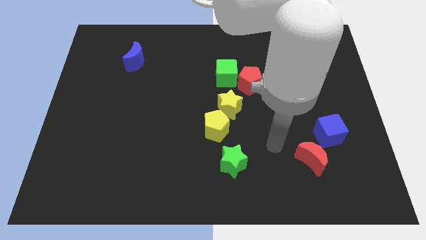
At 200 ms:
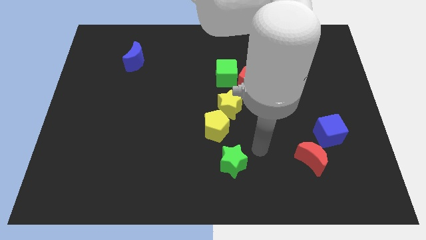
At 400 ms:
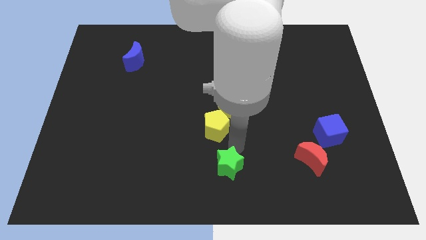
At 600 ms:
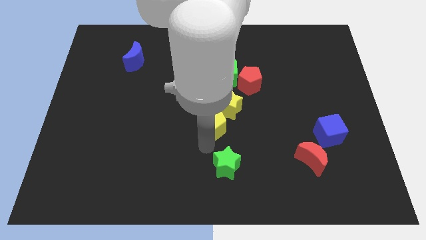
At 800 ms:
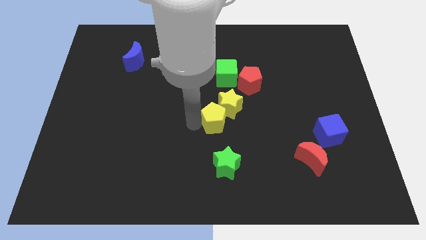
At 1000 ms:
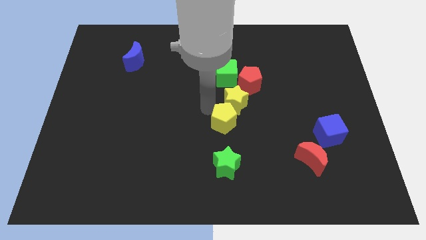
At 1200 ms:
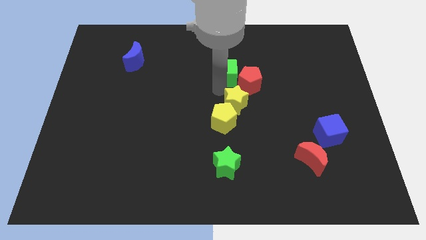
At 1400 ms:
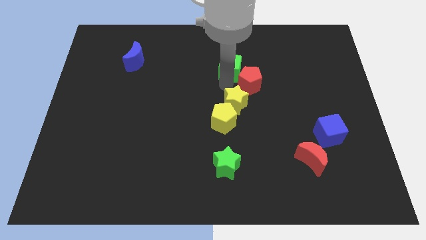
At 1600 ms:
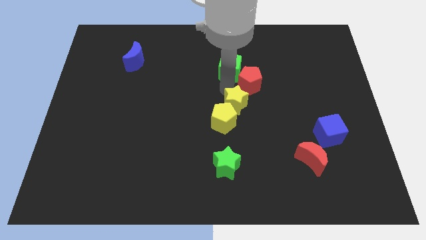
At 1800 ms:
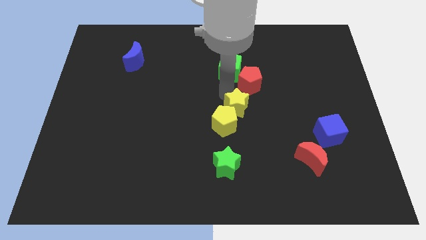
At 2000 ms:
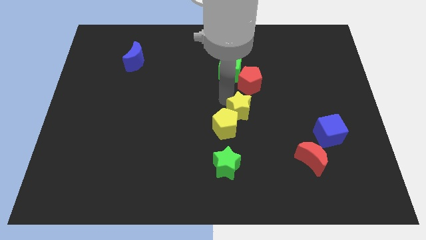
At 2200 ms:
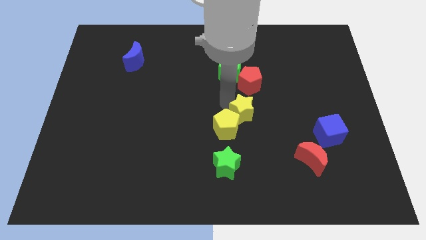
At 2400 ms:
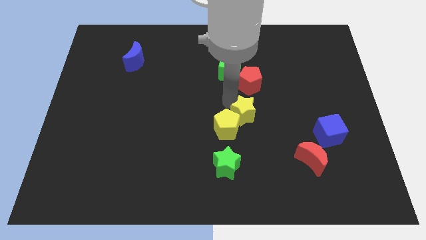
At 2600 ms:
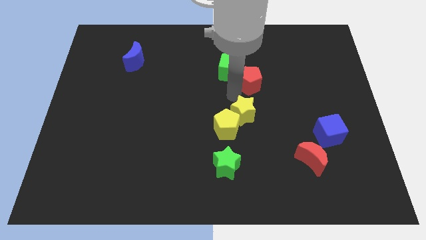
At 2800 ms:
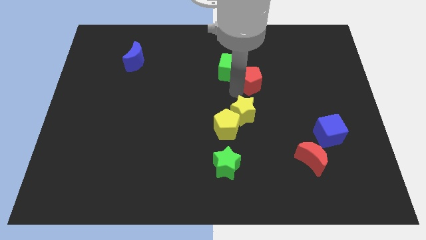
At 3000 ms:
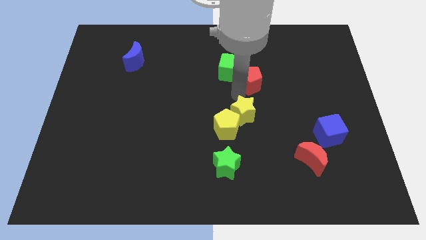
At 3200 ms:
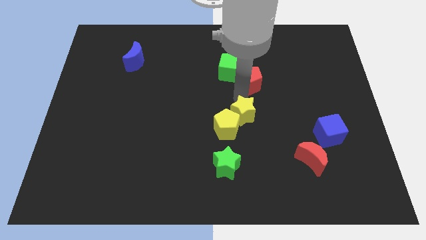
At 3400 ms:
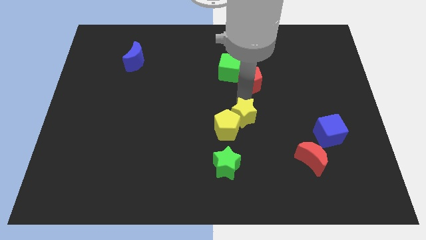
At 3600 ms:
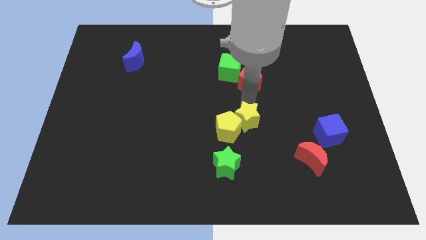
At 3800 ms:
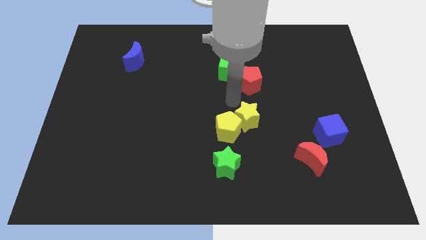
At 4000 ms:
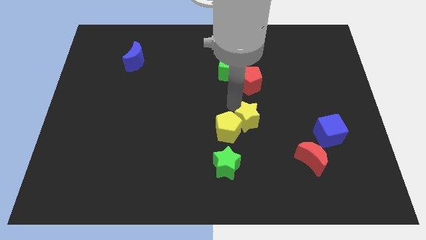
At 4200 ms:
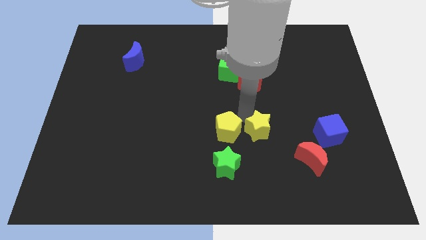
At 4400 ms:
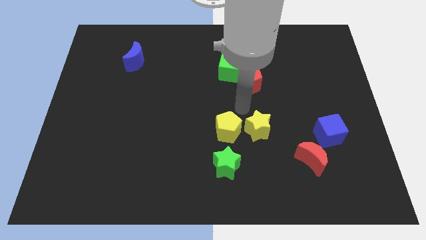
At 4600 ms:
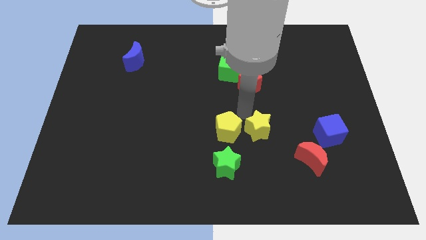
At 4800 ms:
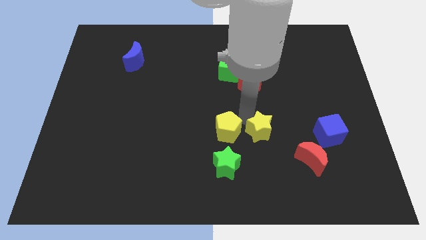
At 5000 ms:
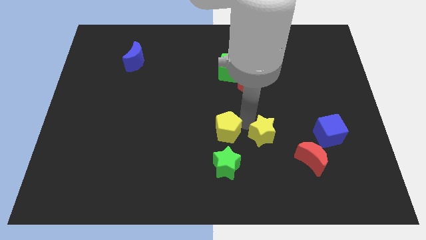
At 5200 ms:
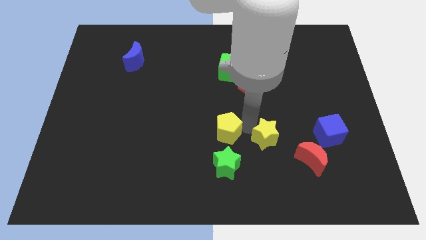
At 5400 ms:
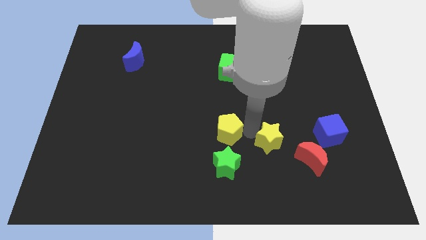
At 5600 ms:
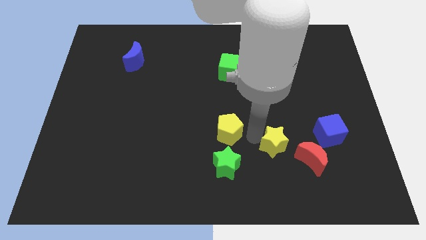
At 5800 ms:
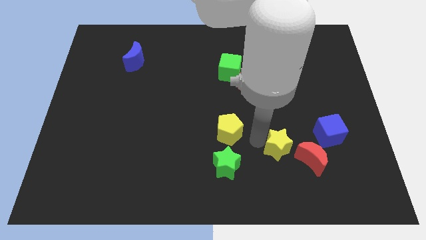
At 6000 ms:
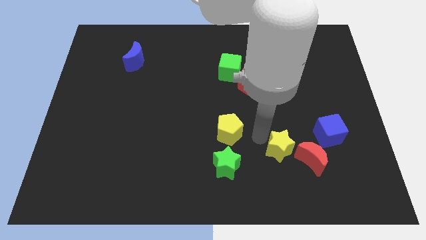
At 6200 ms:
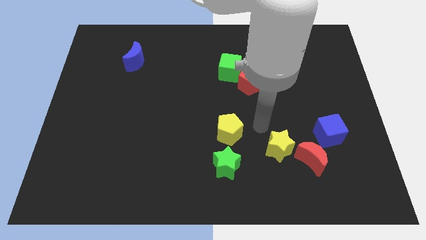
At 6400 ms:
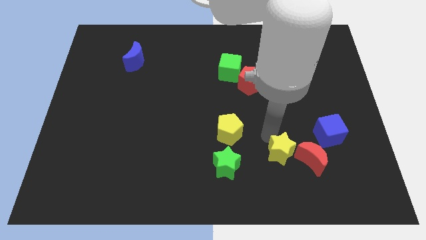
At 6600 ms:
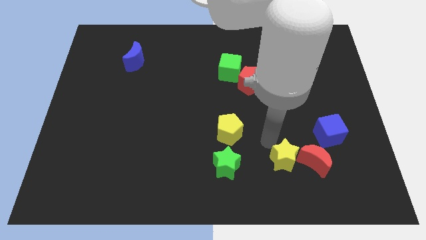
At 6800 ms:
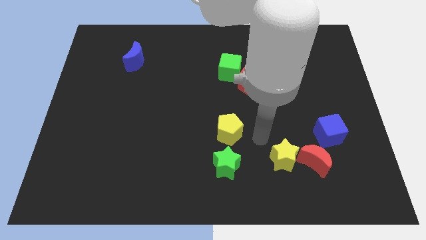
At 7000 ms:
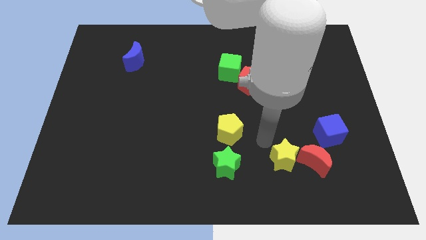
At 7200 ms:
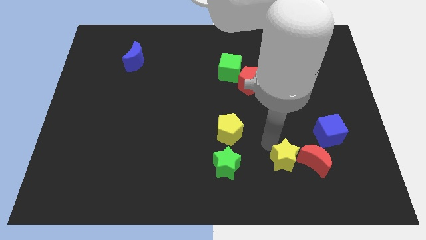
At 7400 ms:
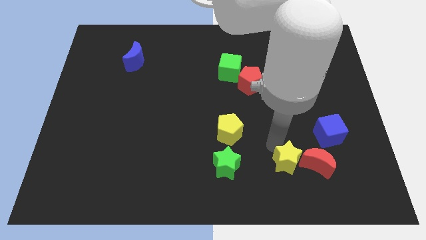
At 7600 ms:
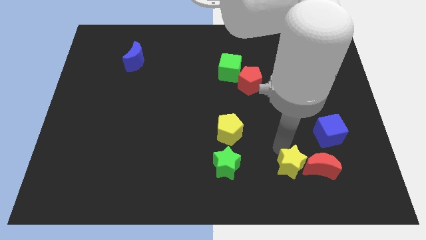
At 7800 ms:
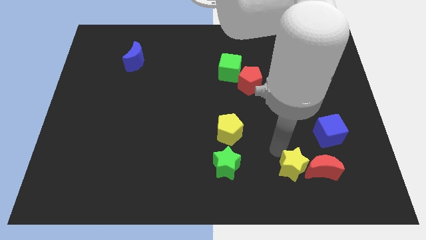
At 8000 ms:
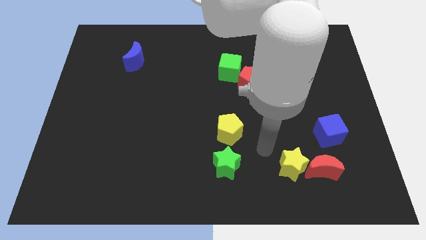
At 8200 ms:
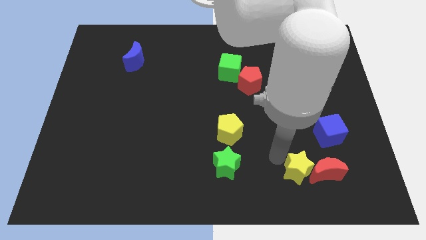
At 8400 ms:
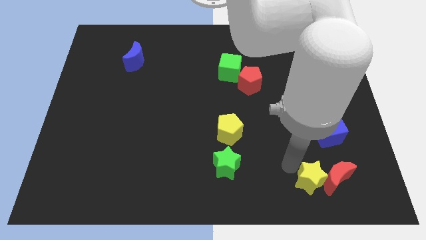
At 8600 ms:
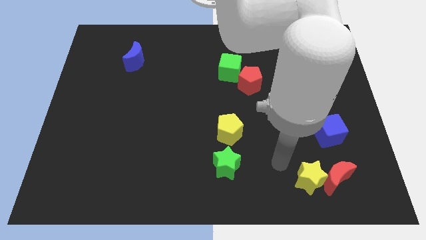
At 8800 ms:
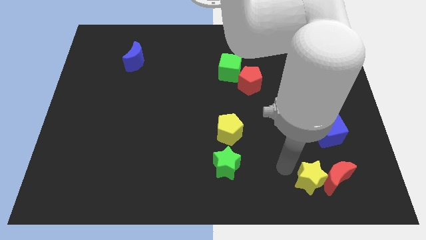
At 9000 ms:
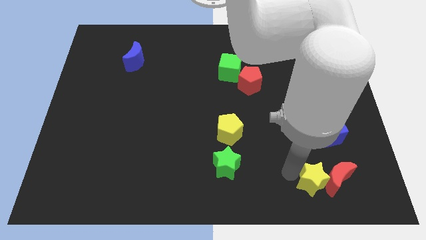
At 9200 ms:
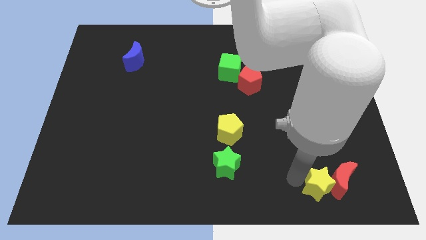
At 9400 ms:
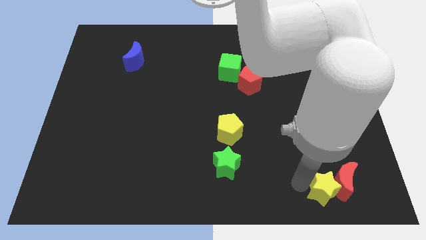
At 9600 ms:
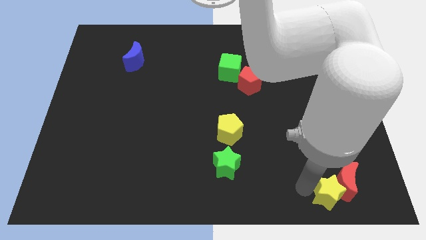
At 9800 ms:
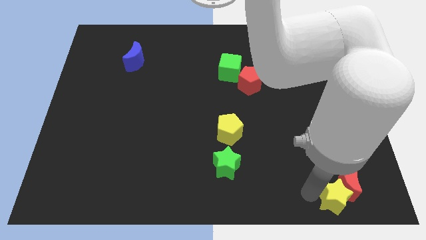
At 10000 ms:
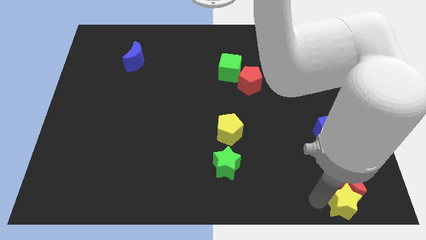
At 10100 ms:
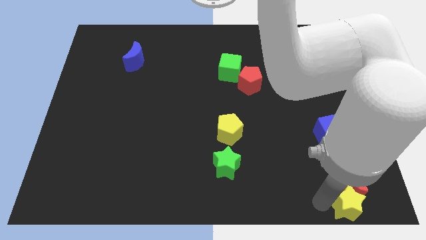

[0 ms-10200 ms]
move the yellow star to the bottom right

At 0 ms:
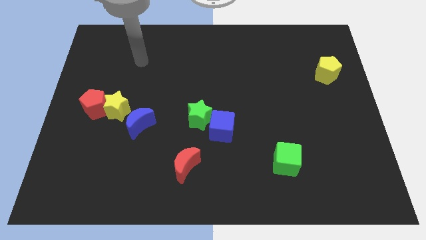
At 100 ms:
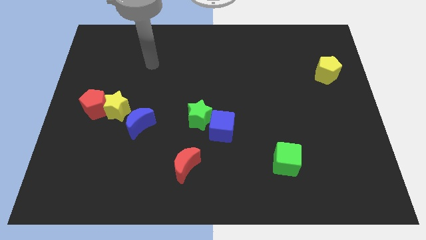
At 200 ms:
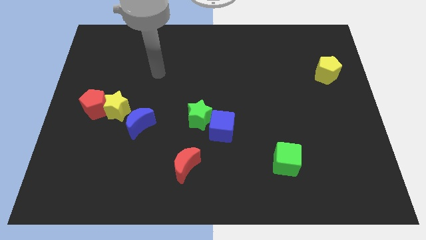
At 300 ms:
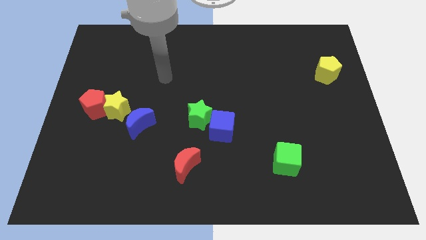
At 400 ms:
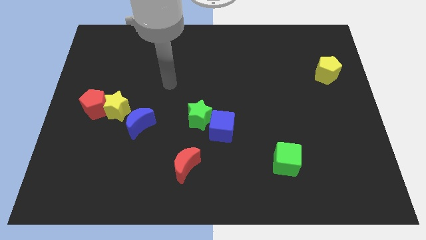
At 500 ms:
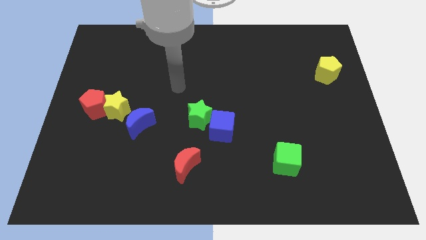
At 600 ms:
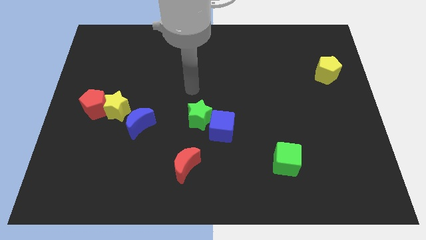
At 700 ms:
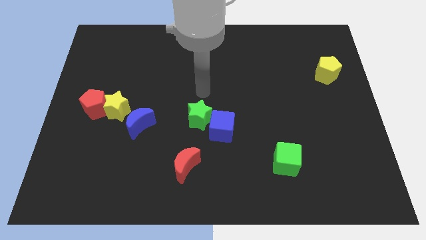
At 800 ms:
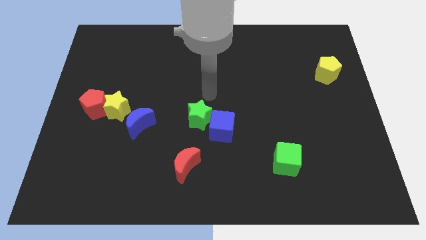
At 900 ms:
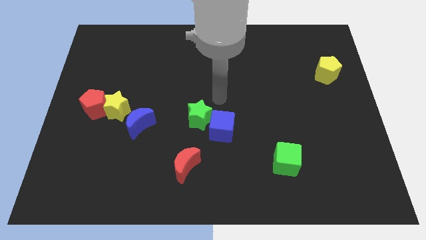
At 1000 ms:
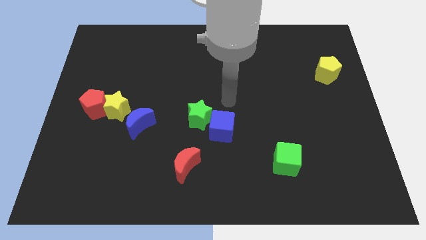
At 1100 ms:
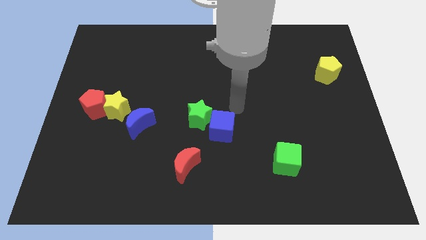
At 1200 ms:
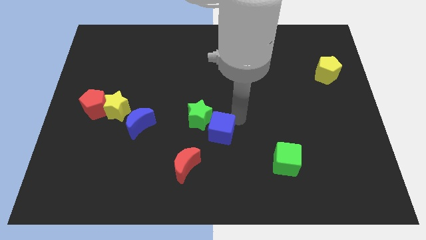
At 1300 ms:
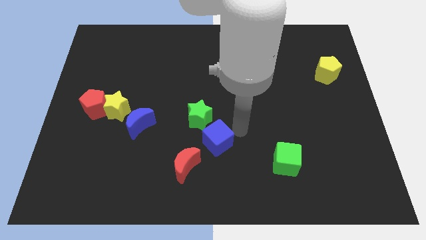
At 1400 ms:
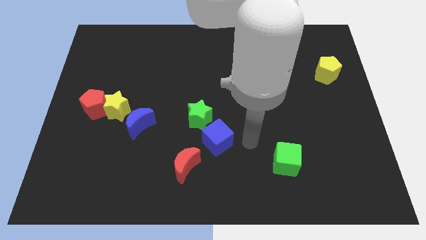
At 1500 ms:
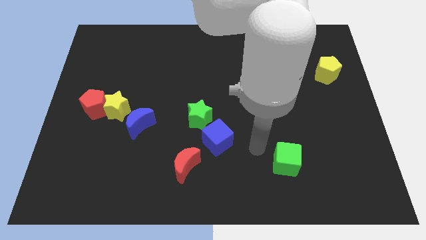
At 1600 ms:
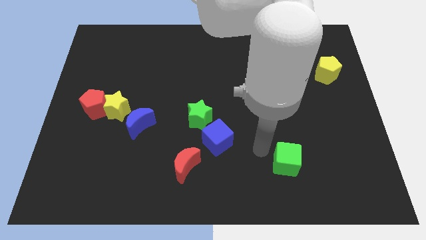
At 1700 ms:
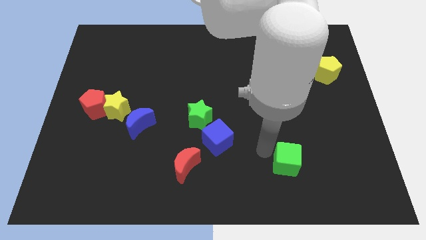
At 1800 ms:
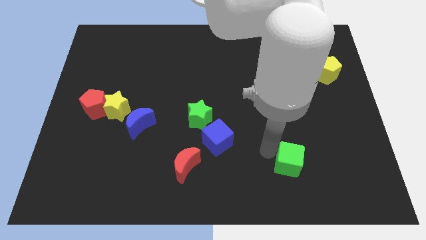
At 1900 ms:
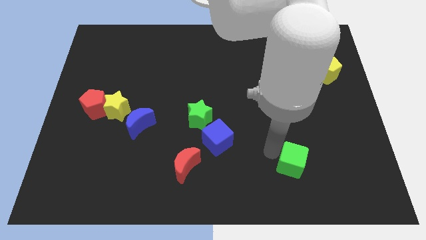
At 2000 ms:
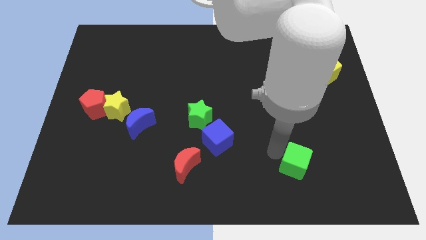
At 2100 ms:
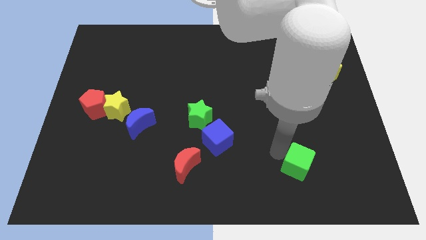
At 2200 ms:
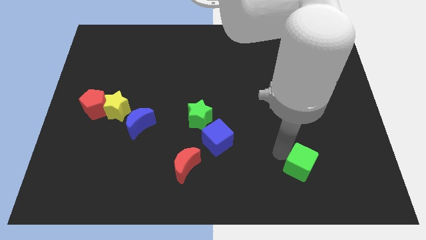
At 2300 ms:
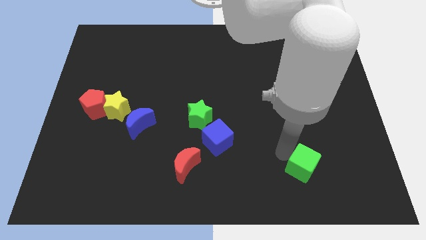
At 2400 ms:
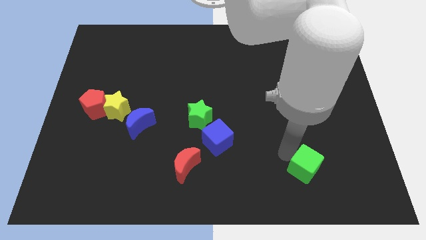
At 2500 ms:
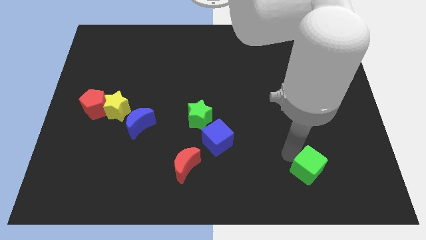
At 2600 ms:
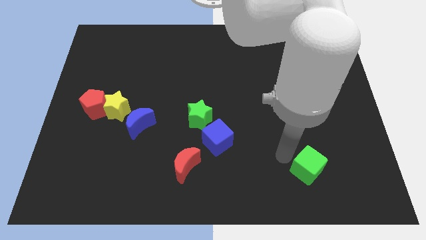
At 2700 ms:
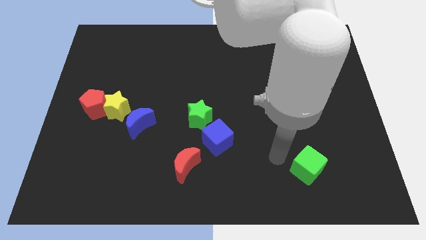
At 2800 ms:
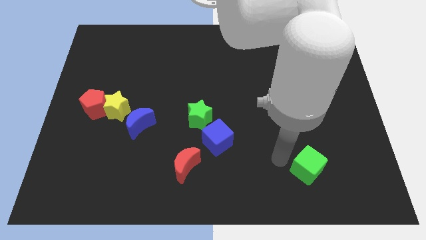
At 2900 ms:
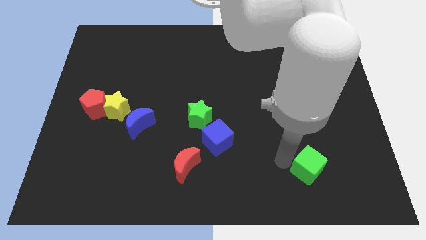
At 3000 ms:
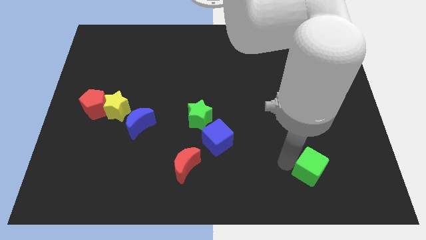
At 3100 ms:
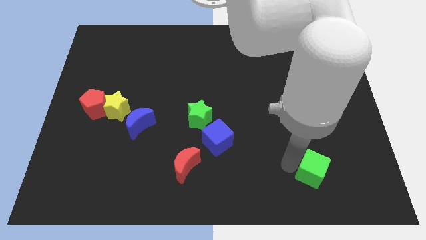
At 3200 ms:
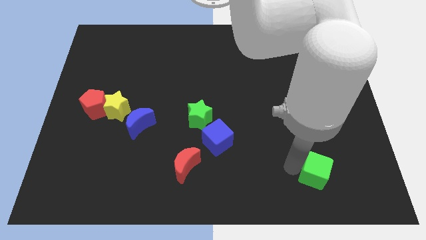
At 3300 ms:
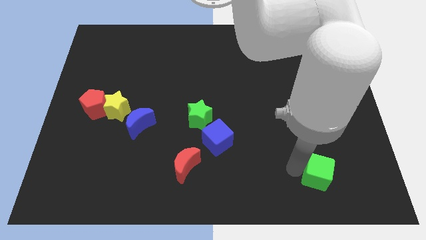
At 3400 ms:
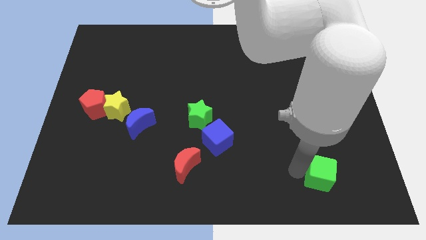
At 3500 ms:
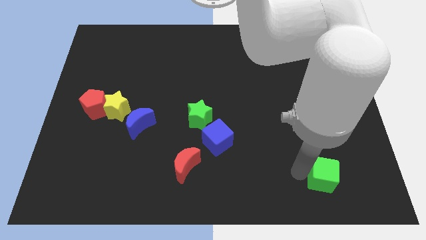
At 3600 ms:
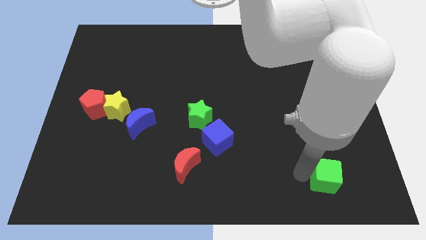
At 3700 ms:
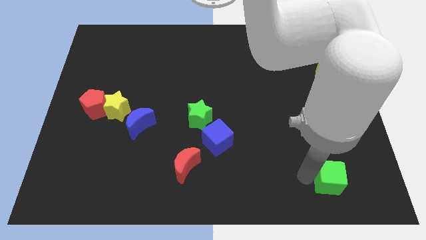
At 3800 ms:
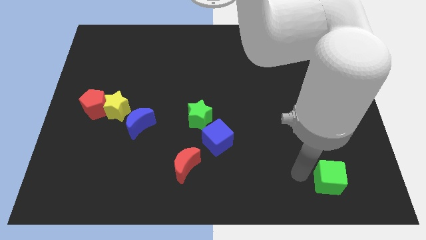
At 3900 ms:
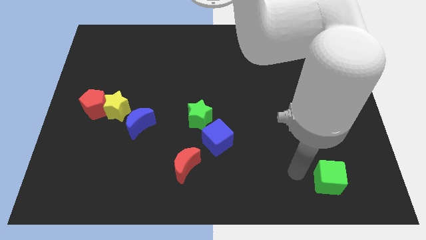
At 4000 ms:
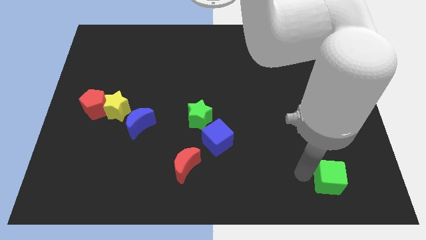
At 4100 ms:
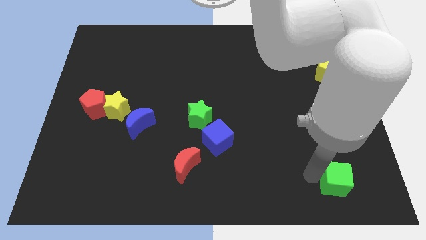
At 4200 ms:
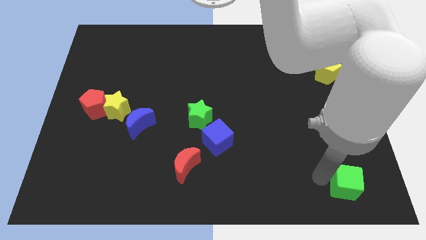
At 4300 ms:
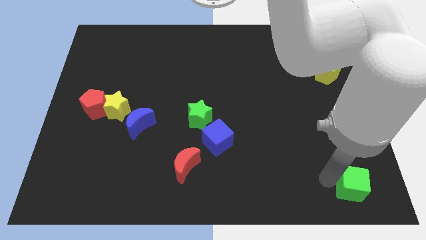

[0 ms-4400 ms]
push the green cube to the lower right corner
